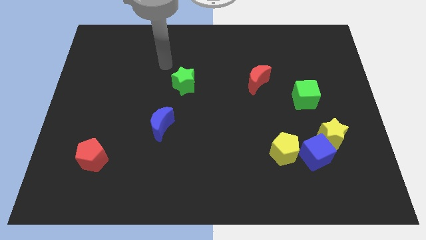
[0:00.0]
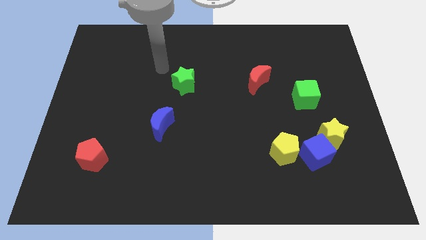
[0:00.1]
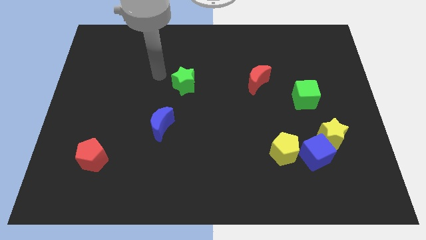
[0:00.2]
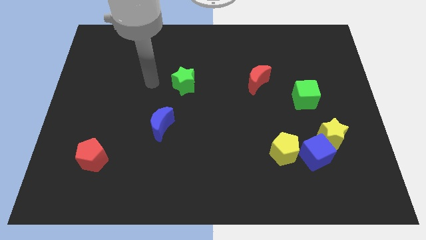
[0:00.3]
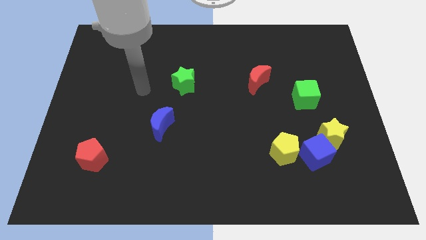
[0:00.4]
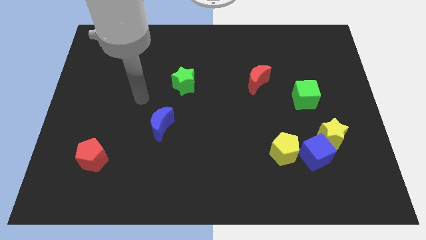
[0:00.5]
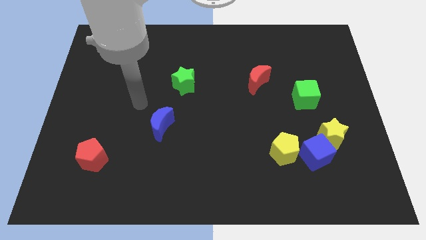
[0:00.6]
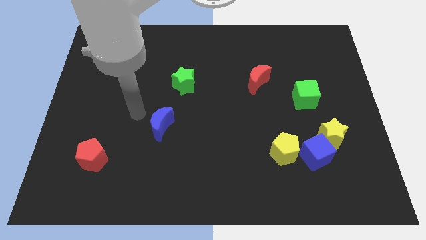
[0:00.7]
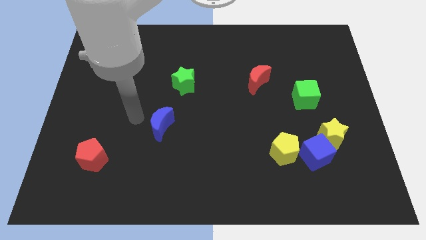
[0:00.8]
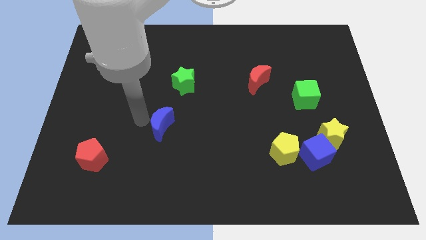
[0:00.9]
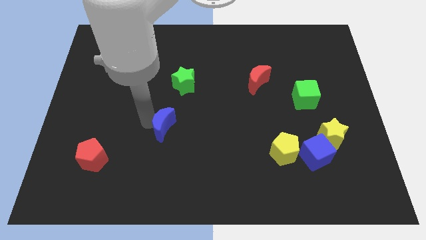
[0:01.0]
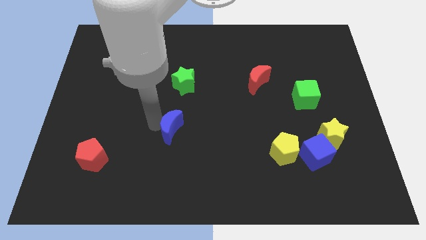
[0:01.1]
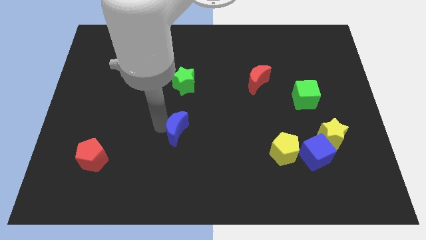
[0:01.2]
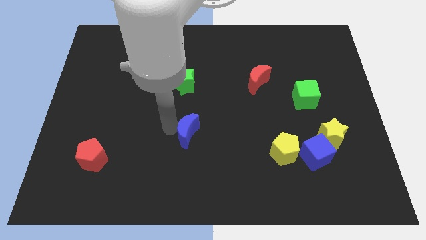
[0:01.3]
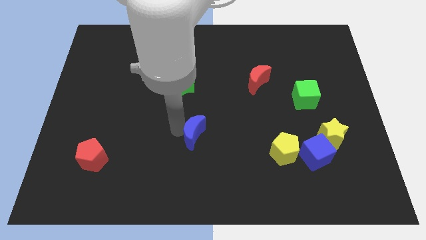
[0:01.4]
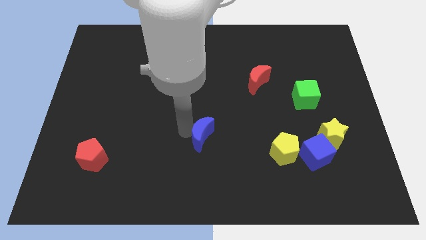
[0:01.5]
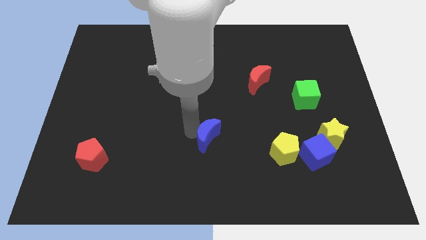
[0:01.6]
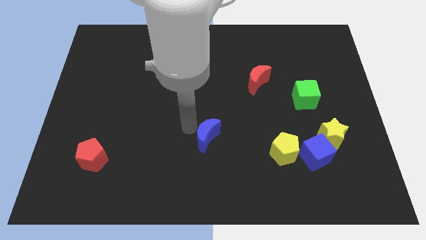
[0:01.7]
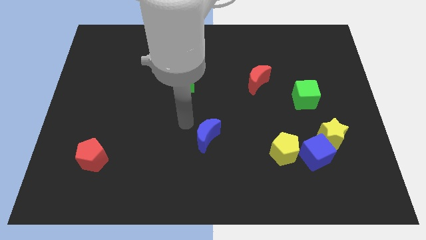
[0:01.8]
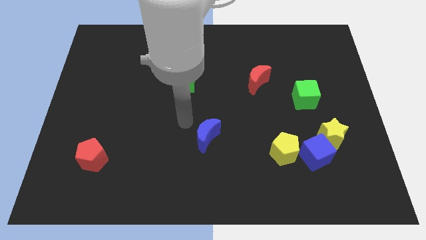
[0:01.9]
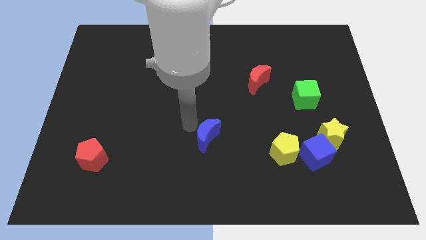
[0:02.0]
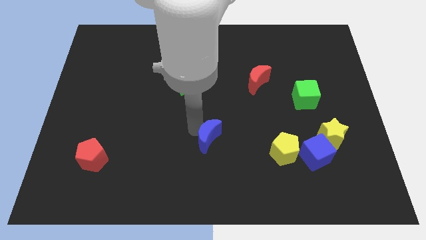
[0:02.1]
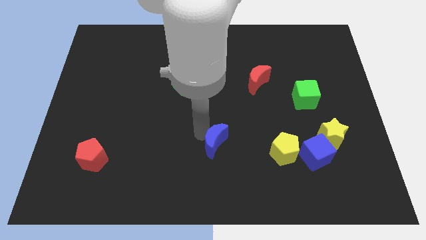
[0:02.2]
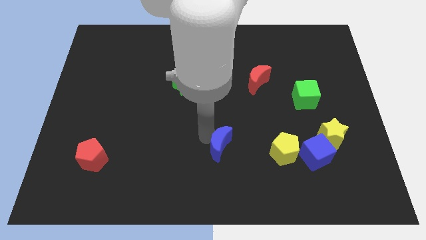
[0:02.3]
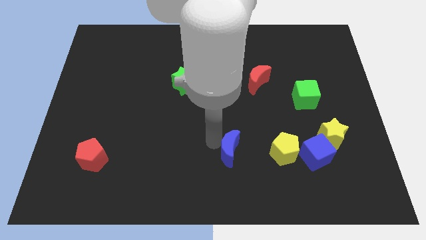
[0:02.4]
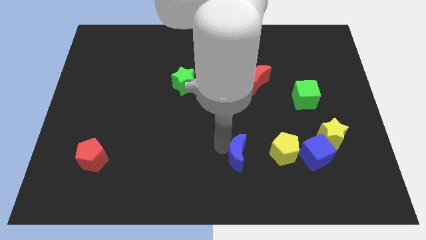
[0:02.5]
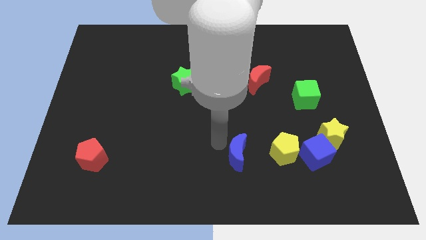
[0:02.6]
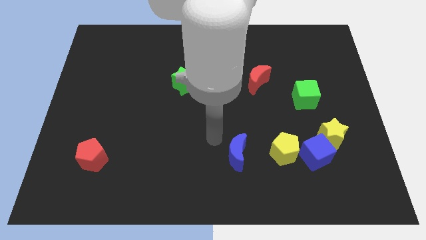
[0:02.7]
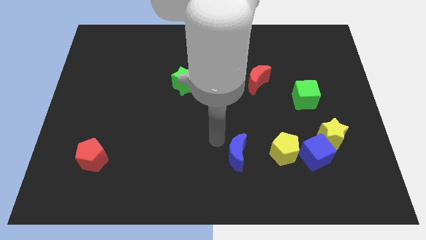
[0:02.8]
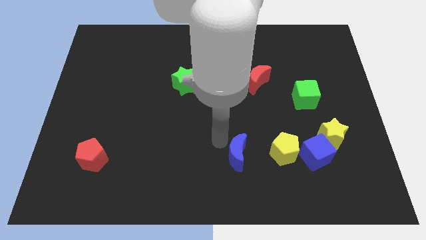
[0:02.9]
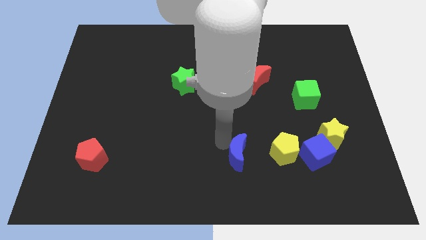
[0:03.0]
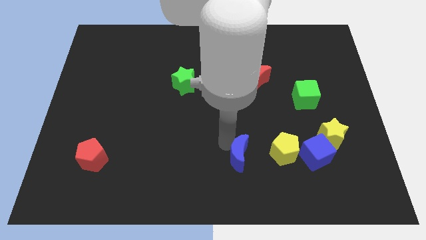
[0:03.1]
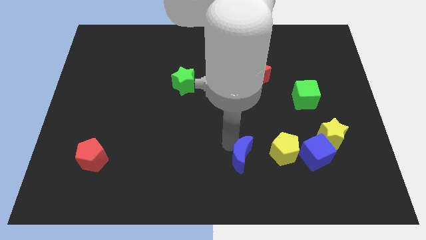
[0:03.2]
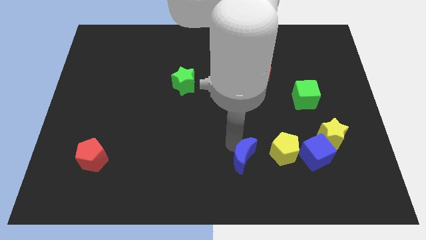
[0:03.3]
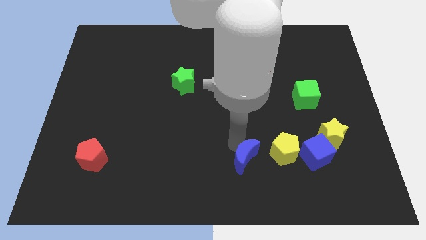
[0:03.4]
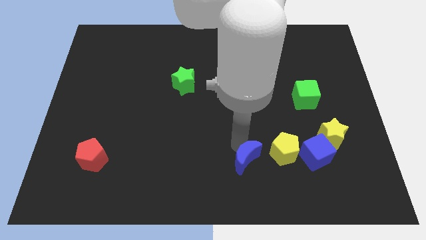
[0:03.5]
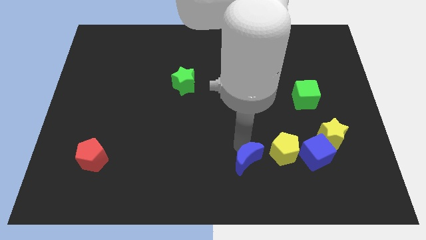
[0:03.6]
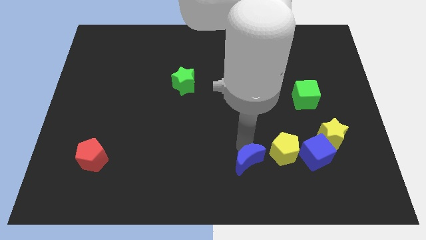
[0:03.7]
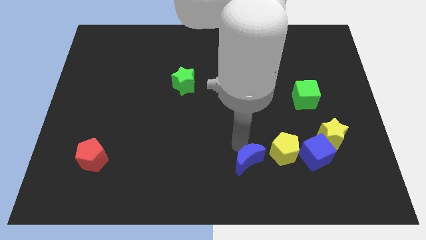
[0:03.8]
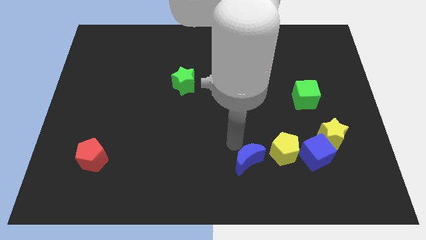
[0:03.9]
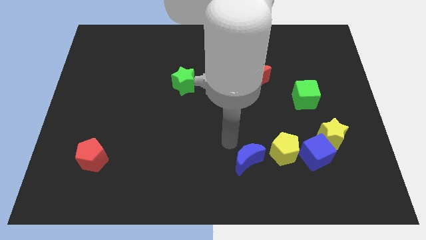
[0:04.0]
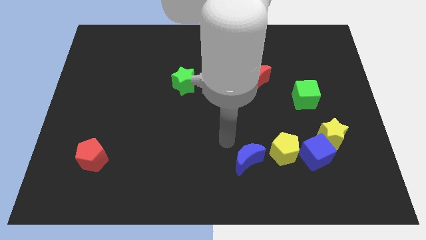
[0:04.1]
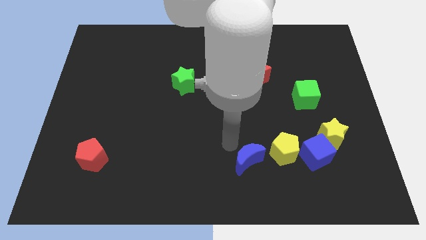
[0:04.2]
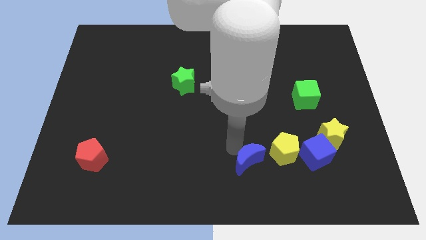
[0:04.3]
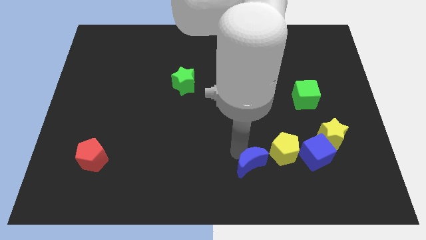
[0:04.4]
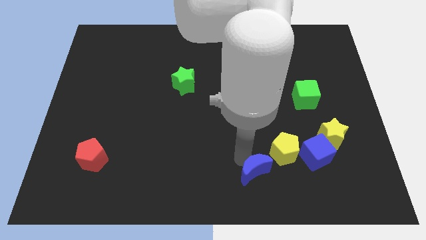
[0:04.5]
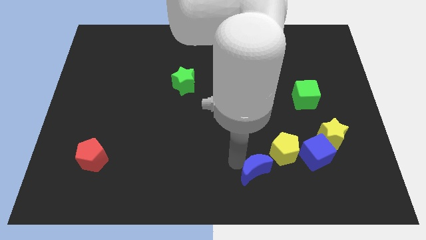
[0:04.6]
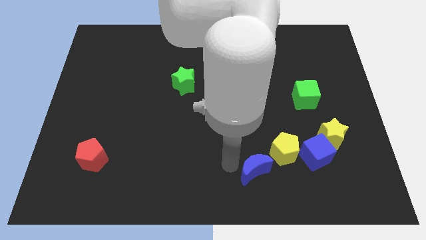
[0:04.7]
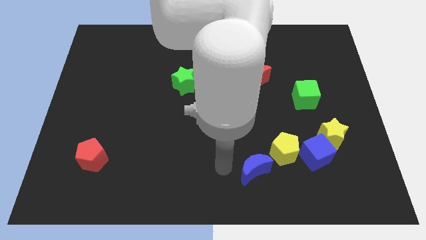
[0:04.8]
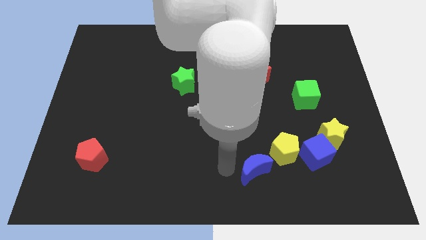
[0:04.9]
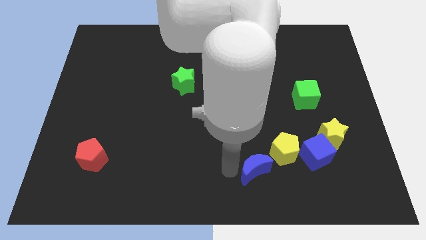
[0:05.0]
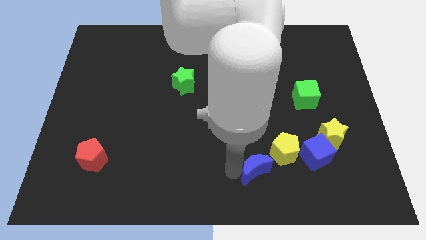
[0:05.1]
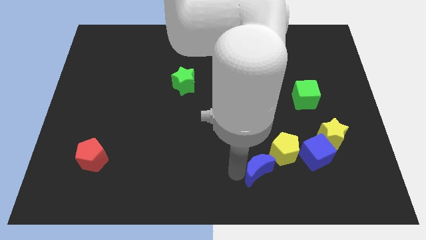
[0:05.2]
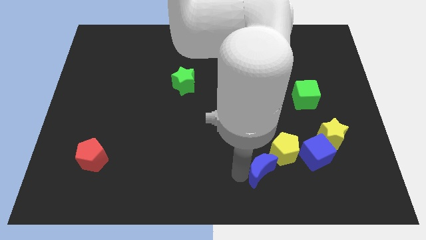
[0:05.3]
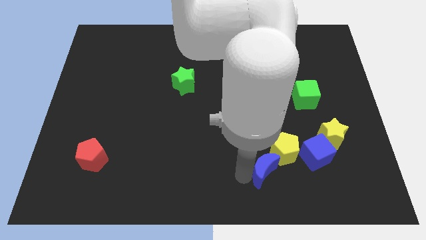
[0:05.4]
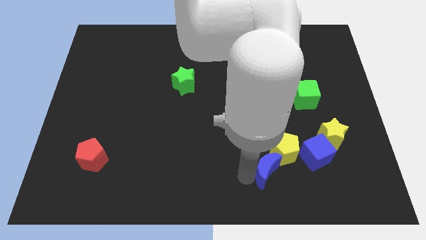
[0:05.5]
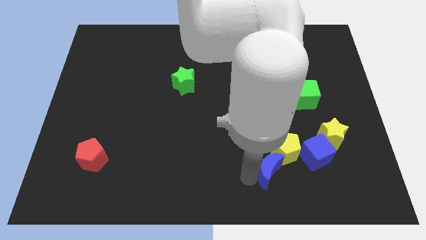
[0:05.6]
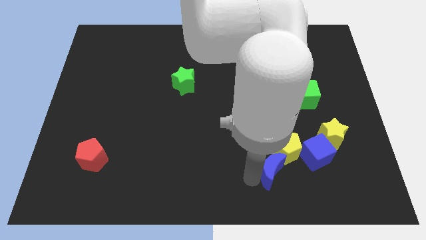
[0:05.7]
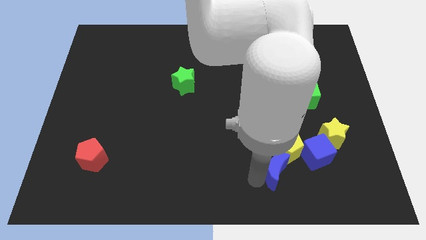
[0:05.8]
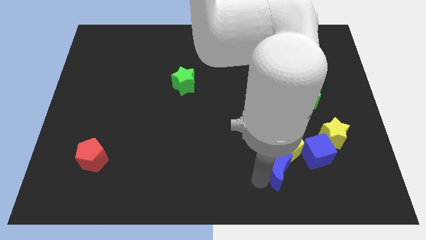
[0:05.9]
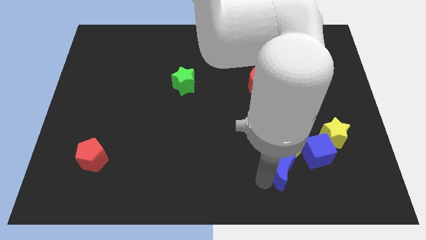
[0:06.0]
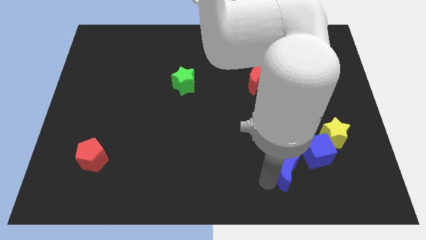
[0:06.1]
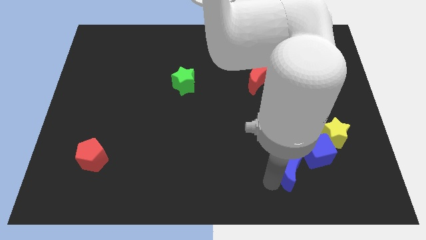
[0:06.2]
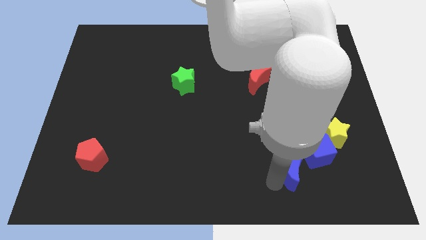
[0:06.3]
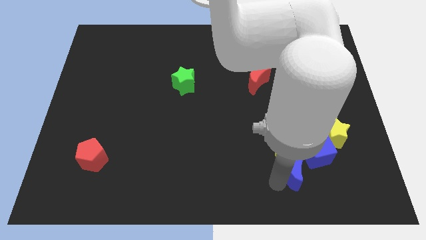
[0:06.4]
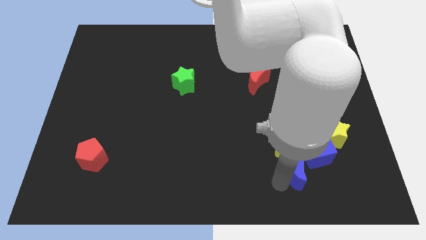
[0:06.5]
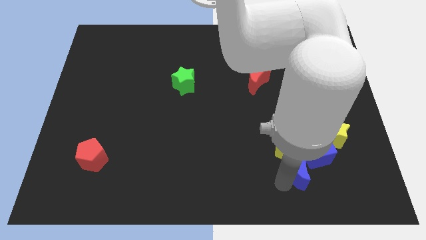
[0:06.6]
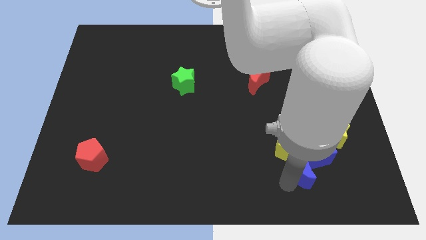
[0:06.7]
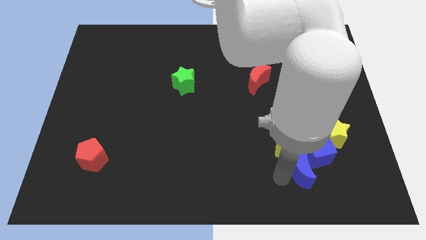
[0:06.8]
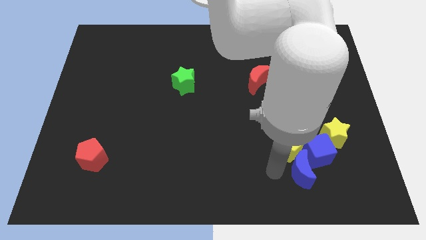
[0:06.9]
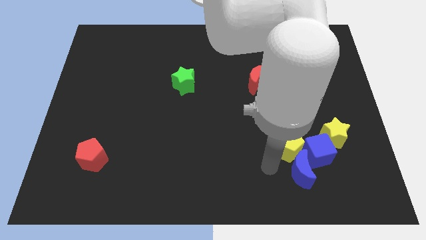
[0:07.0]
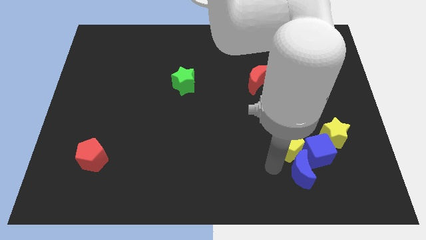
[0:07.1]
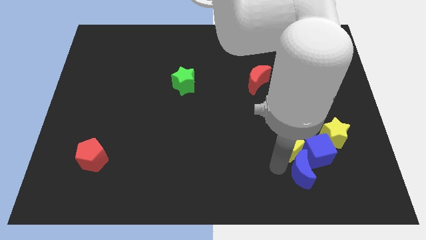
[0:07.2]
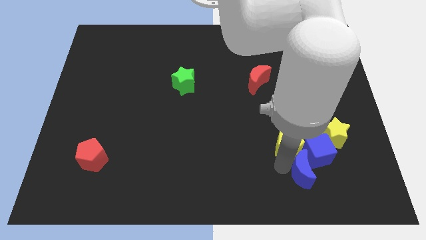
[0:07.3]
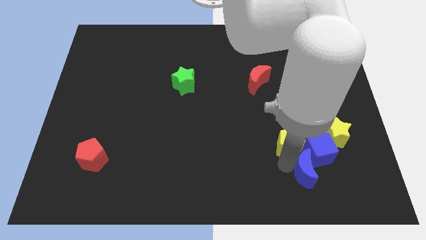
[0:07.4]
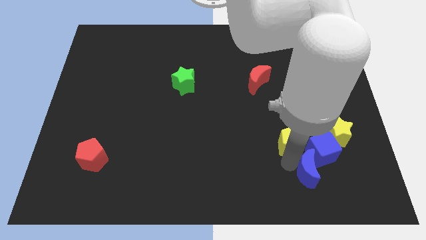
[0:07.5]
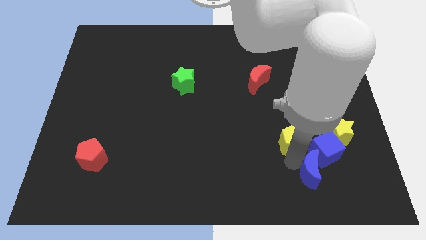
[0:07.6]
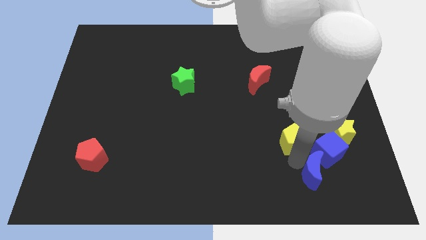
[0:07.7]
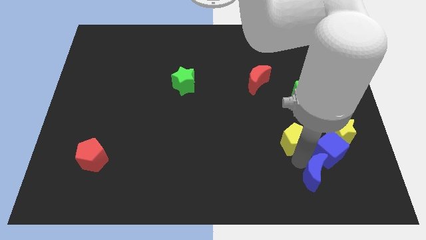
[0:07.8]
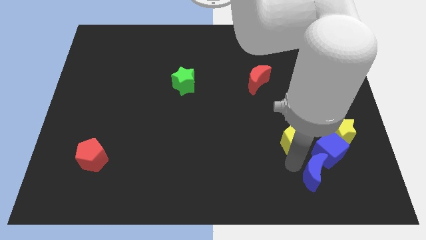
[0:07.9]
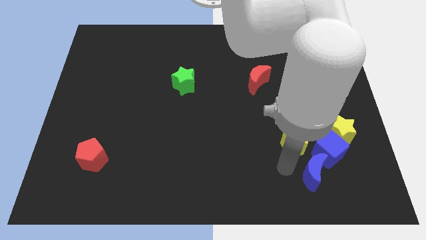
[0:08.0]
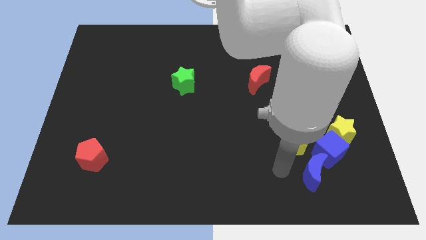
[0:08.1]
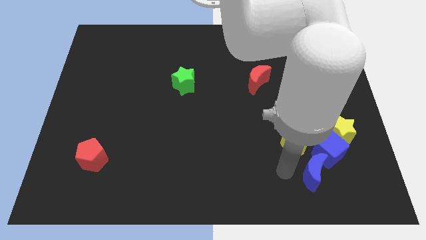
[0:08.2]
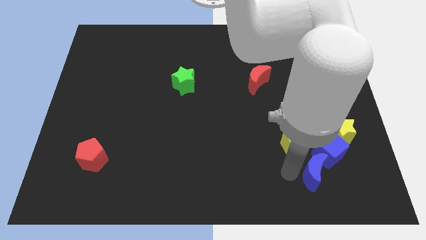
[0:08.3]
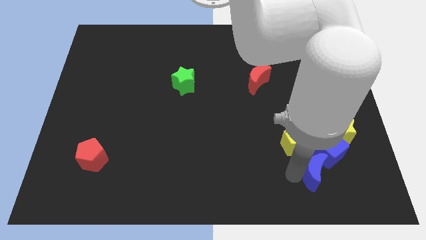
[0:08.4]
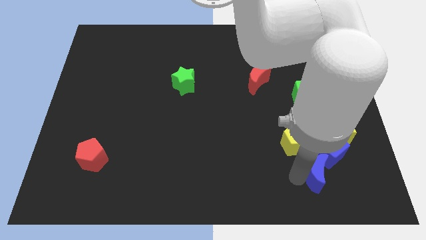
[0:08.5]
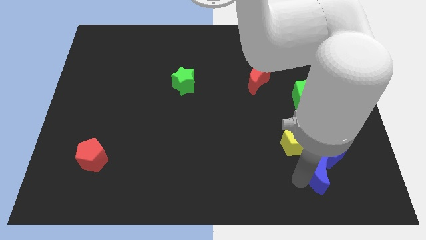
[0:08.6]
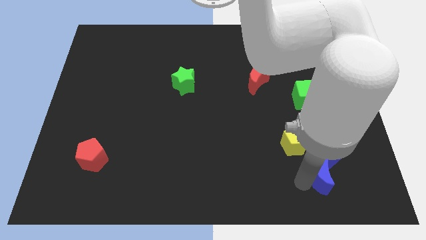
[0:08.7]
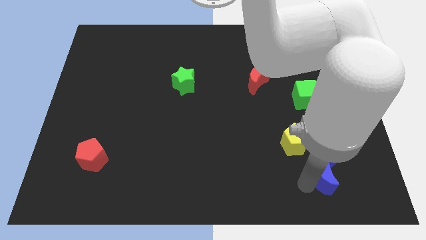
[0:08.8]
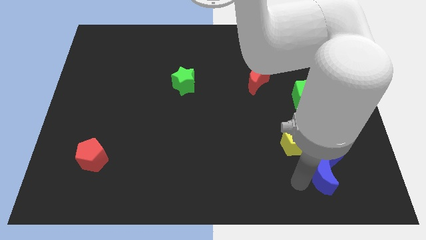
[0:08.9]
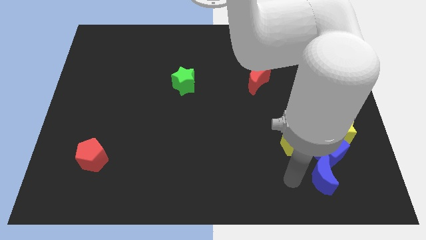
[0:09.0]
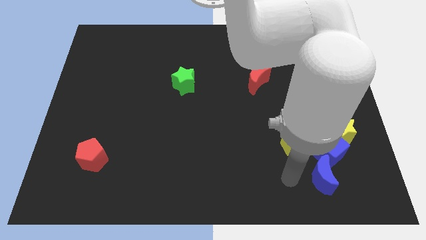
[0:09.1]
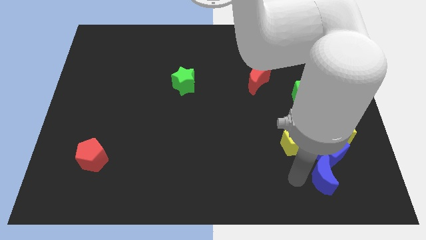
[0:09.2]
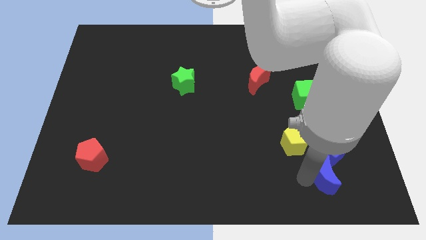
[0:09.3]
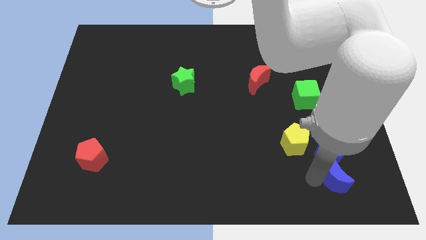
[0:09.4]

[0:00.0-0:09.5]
put the blue moon to the bottom side of the yellow star
